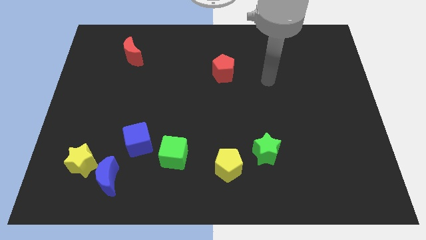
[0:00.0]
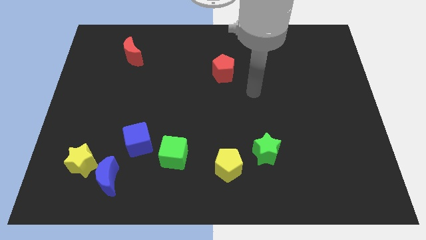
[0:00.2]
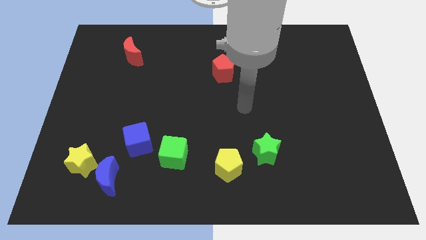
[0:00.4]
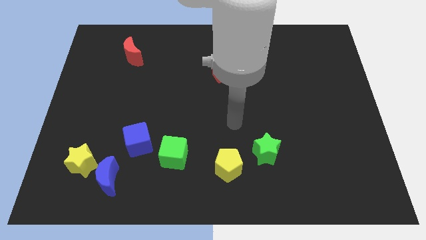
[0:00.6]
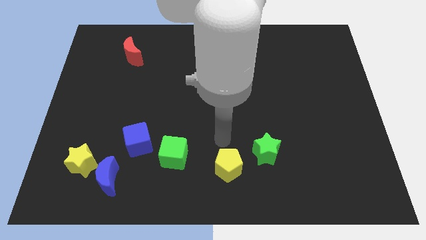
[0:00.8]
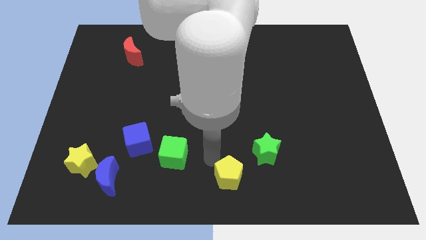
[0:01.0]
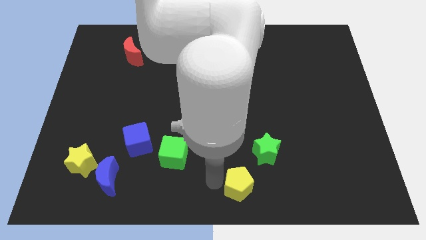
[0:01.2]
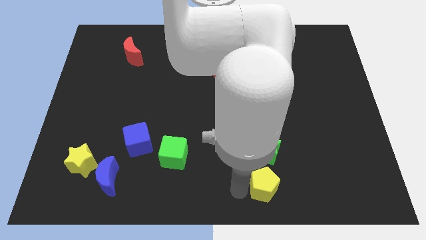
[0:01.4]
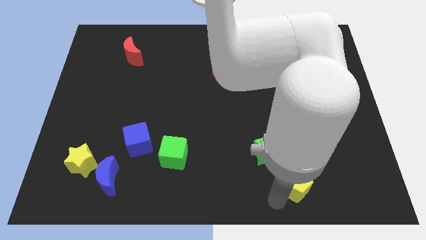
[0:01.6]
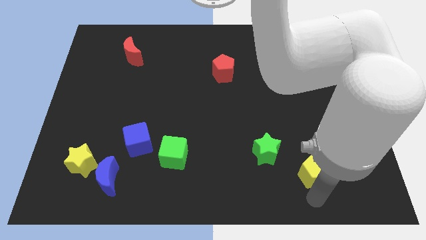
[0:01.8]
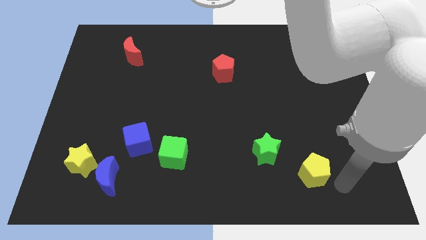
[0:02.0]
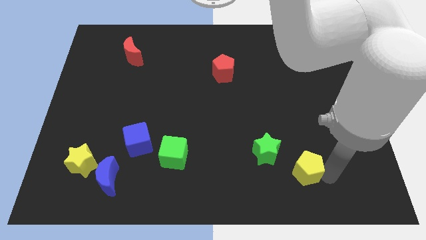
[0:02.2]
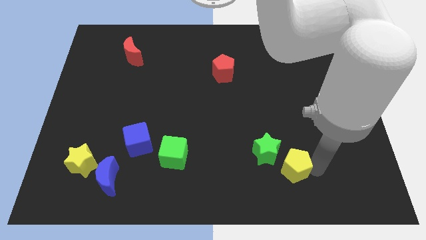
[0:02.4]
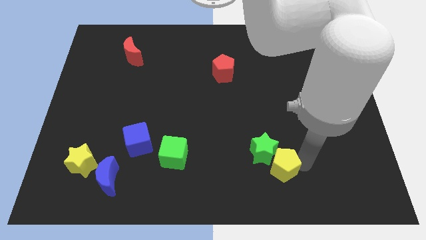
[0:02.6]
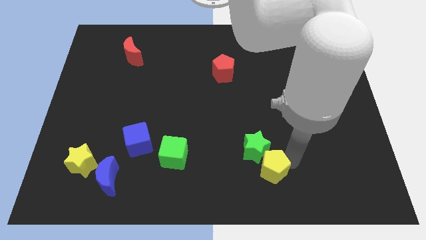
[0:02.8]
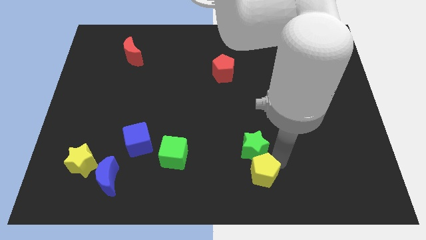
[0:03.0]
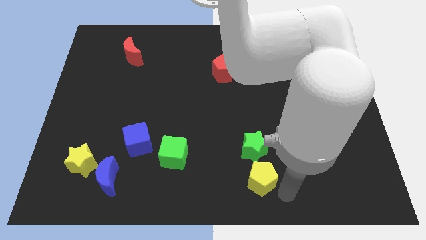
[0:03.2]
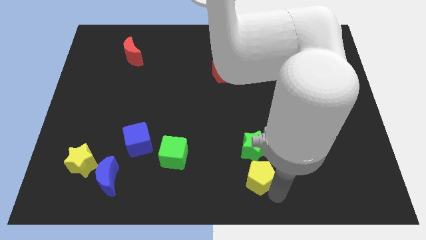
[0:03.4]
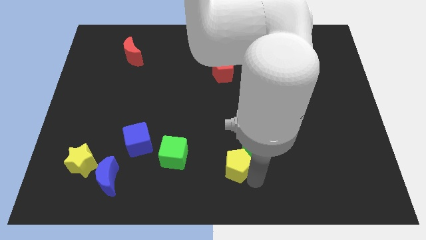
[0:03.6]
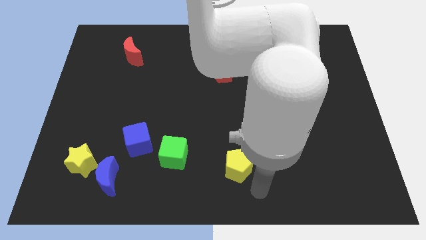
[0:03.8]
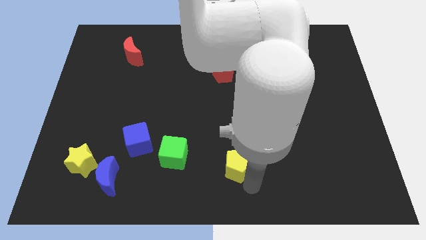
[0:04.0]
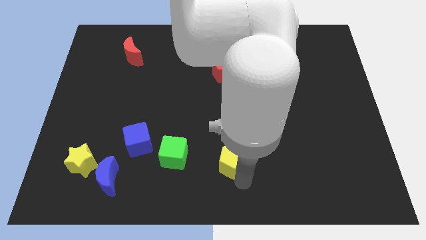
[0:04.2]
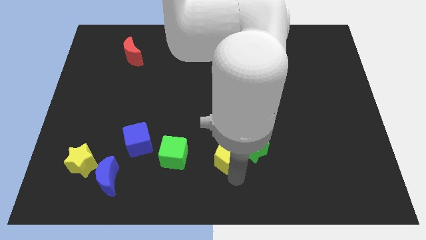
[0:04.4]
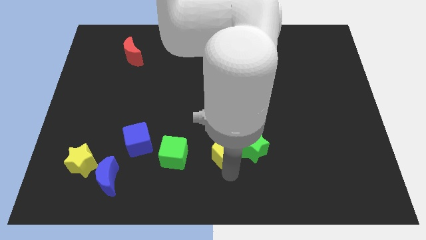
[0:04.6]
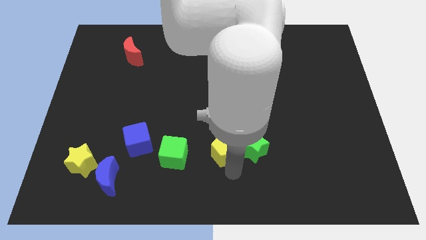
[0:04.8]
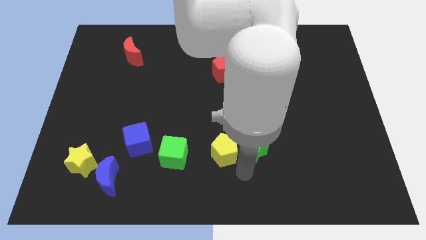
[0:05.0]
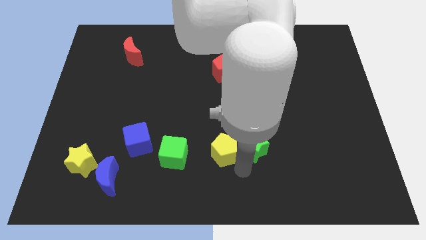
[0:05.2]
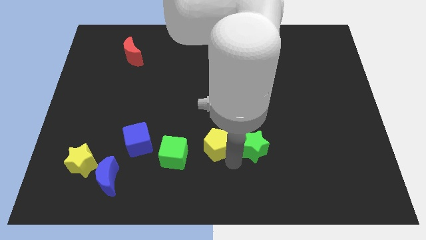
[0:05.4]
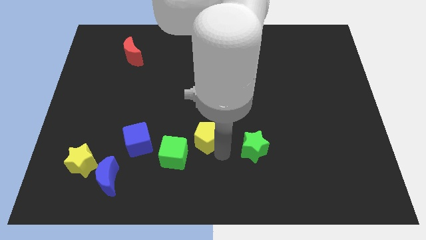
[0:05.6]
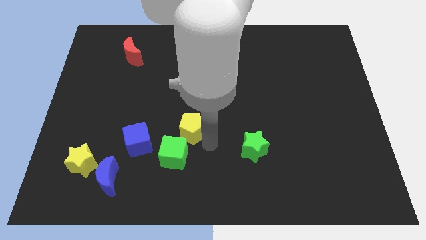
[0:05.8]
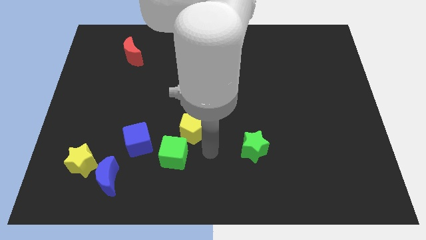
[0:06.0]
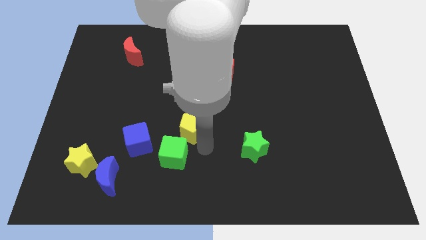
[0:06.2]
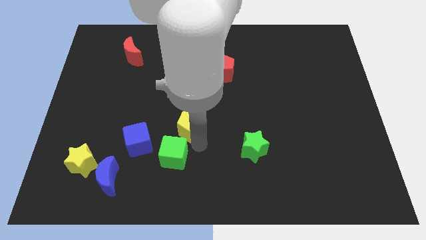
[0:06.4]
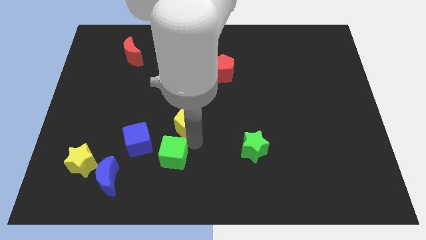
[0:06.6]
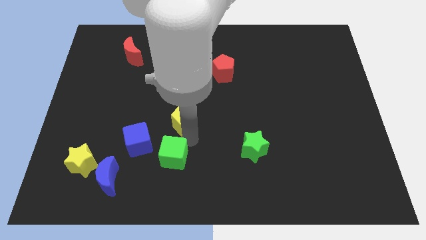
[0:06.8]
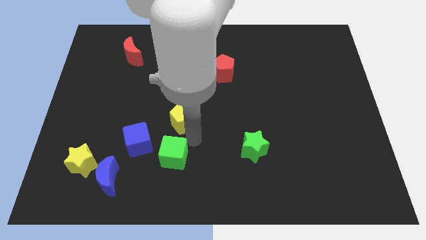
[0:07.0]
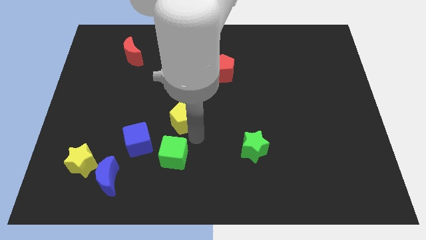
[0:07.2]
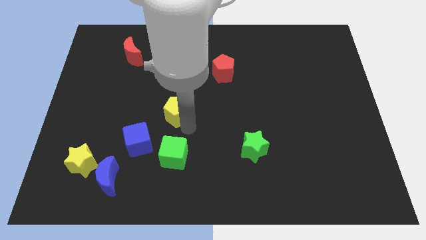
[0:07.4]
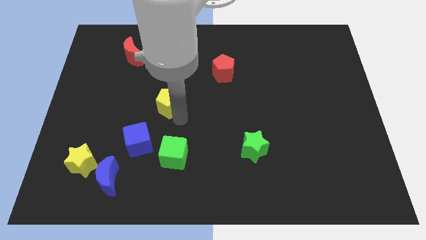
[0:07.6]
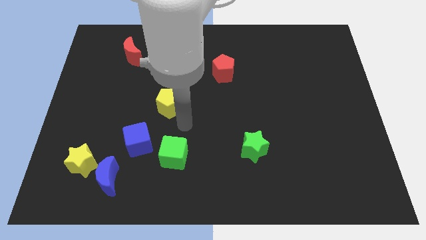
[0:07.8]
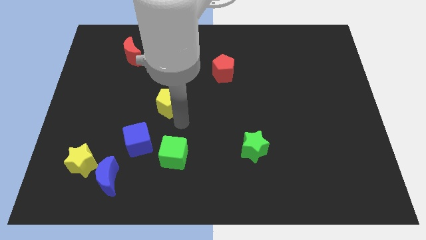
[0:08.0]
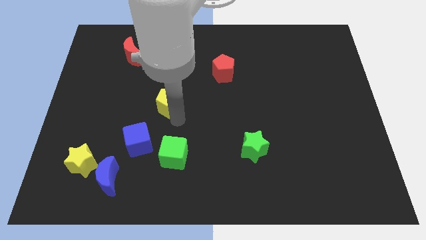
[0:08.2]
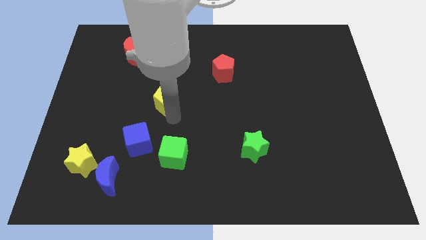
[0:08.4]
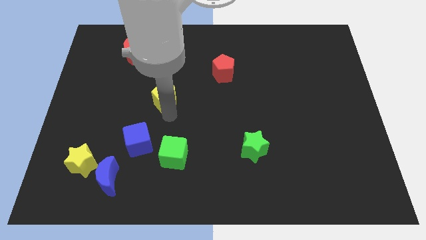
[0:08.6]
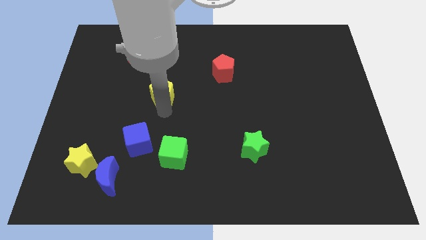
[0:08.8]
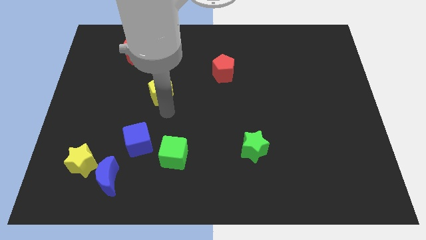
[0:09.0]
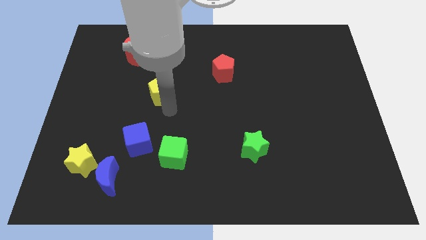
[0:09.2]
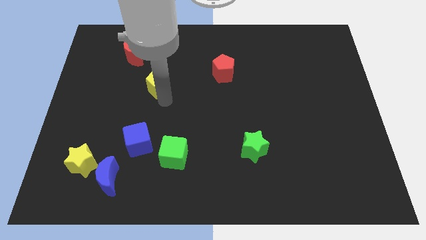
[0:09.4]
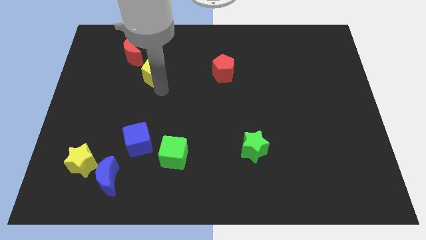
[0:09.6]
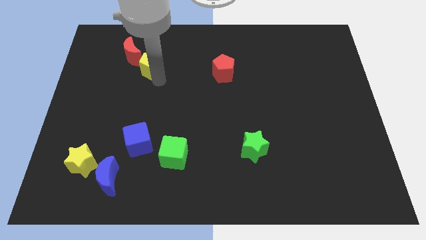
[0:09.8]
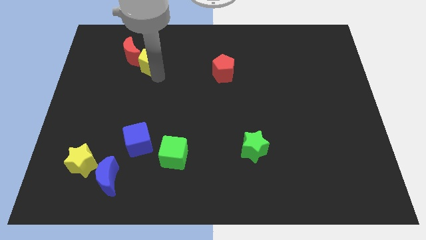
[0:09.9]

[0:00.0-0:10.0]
push the yellow pentagon towards the red moon

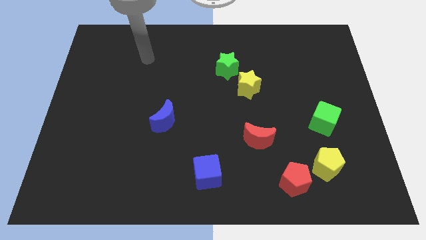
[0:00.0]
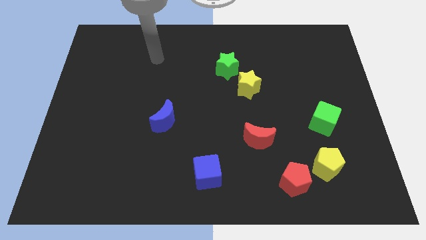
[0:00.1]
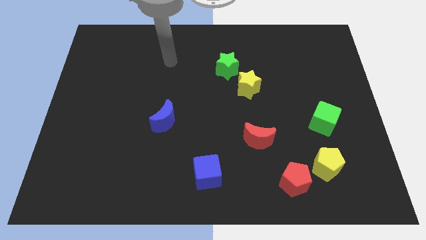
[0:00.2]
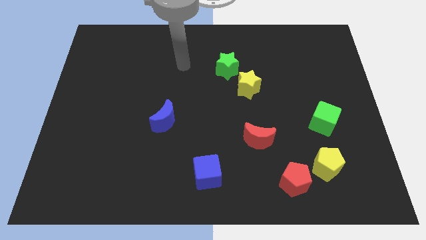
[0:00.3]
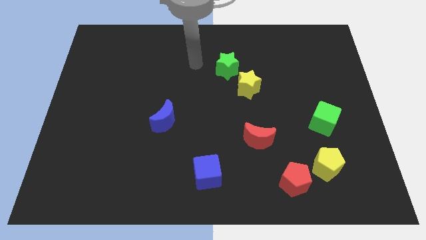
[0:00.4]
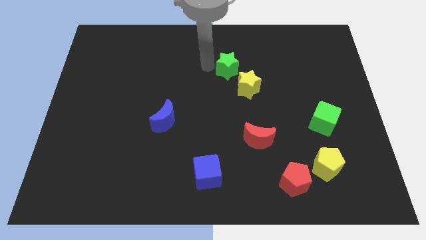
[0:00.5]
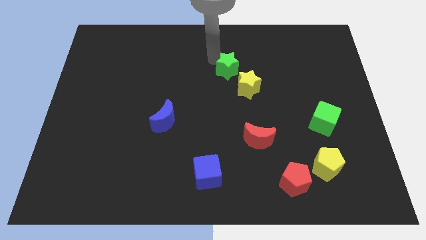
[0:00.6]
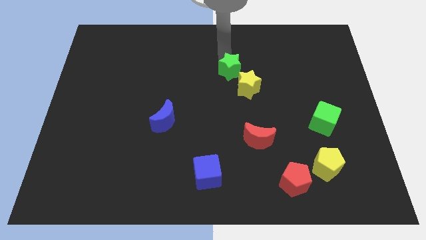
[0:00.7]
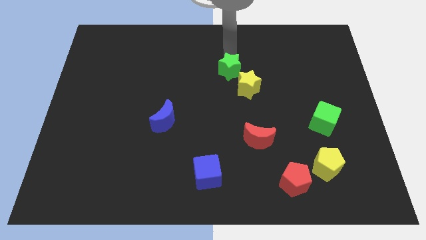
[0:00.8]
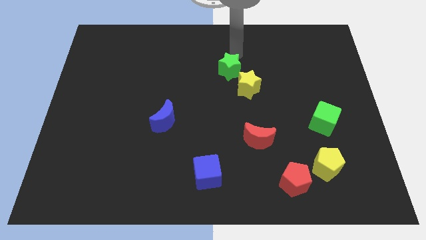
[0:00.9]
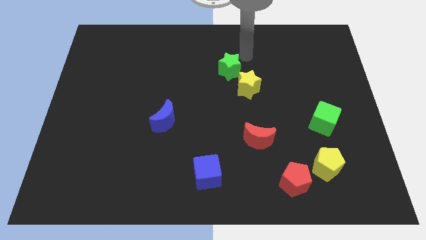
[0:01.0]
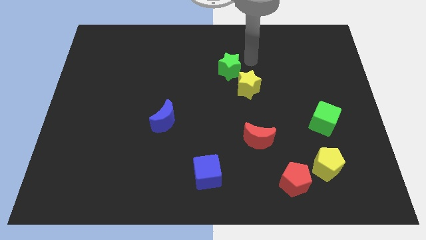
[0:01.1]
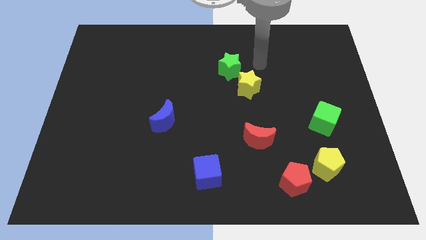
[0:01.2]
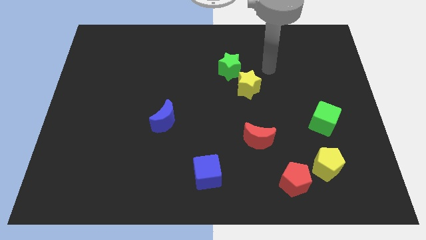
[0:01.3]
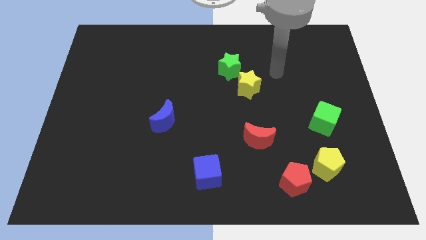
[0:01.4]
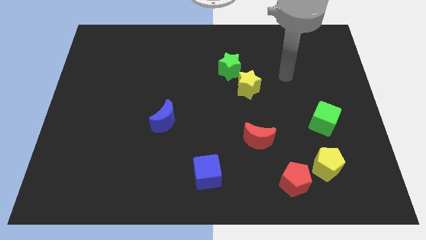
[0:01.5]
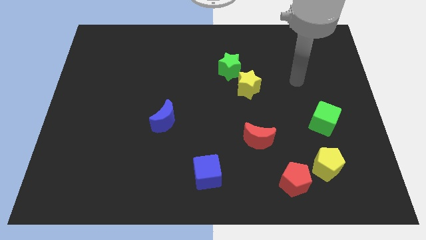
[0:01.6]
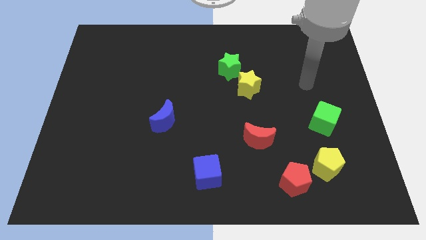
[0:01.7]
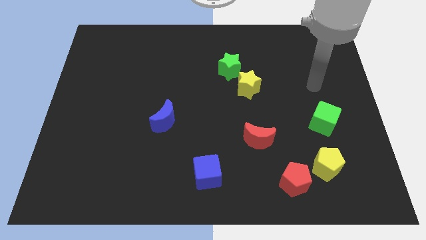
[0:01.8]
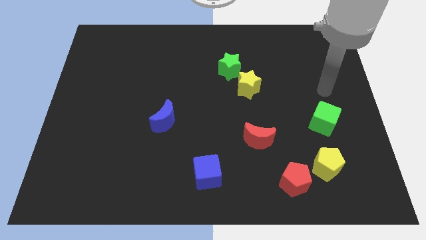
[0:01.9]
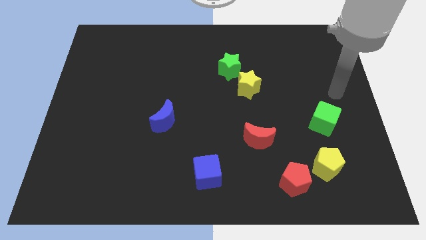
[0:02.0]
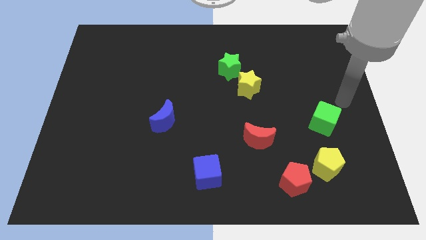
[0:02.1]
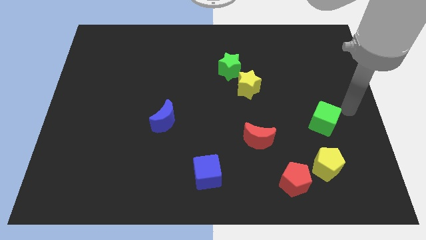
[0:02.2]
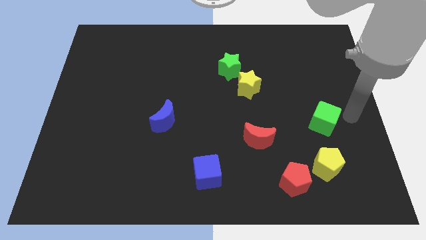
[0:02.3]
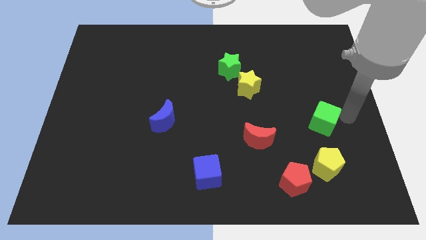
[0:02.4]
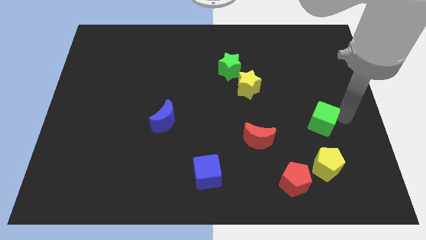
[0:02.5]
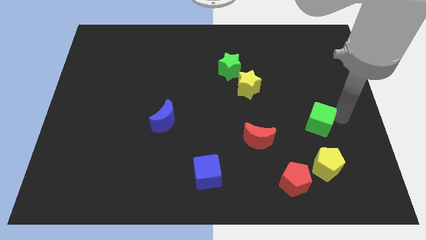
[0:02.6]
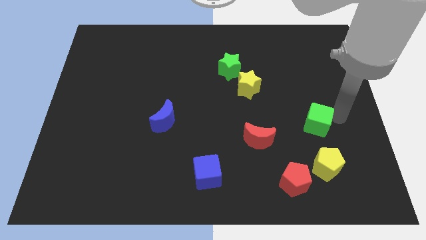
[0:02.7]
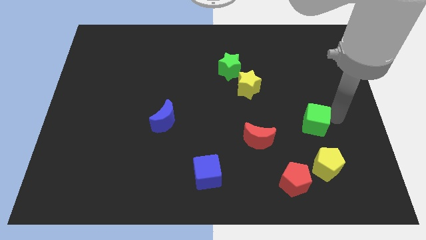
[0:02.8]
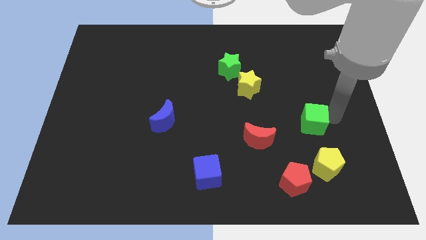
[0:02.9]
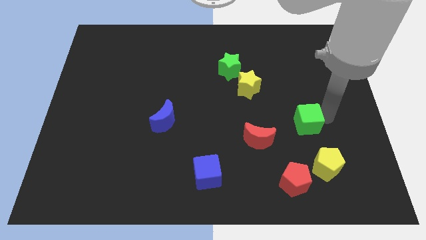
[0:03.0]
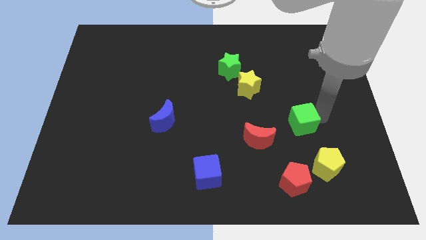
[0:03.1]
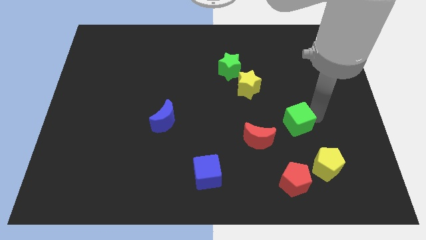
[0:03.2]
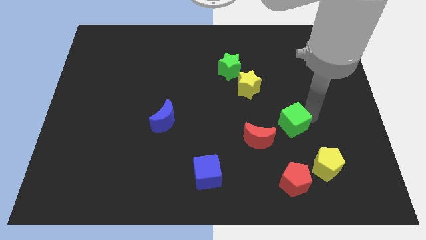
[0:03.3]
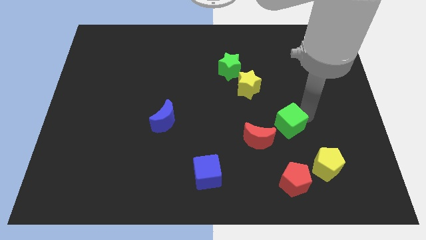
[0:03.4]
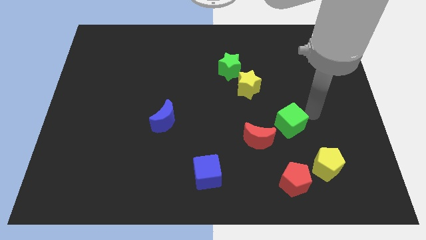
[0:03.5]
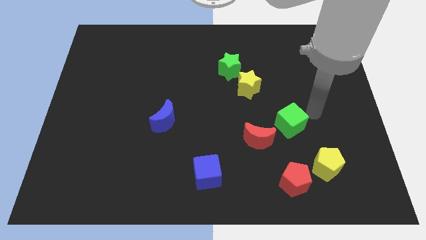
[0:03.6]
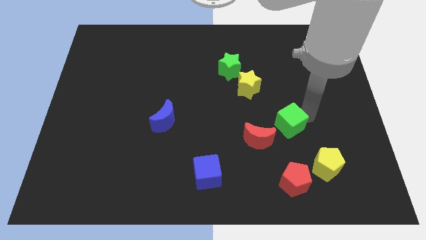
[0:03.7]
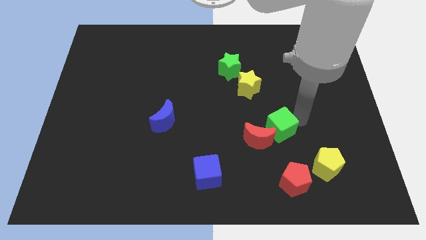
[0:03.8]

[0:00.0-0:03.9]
slide the green cube to the red moon
